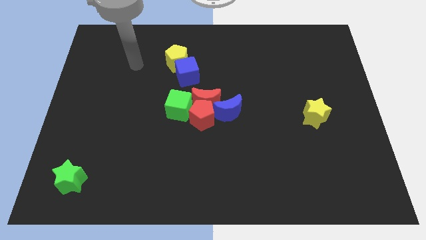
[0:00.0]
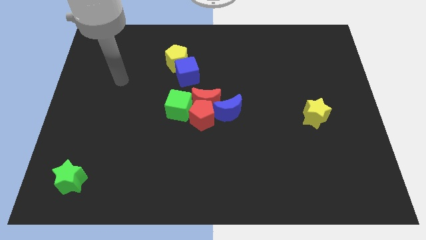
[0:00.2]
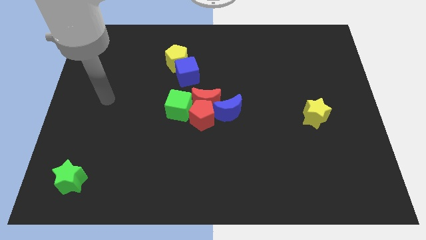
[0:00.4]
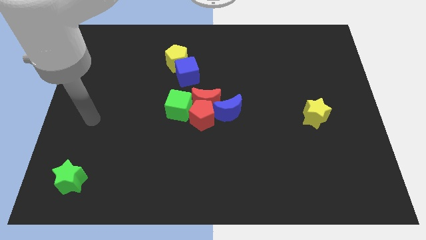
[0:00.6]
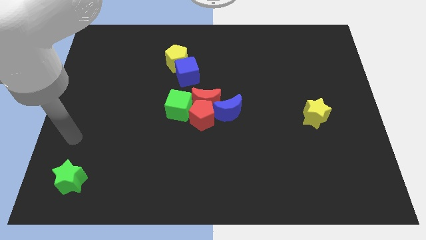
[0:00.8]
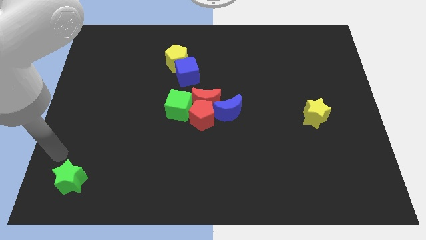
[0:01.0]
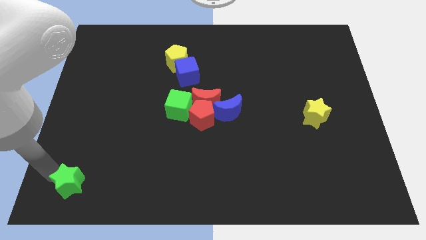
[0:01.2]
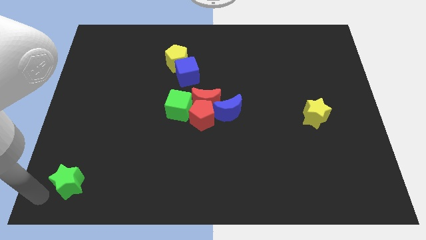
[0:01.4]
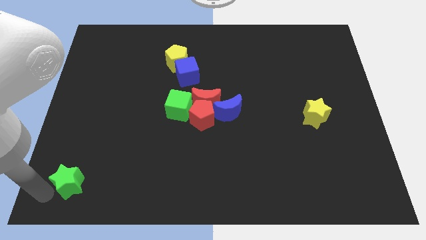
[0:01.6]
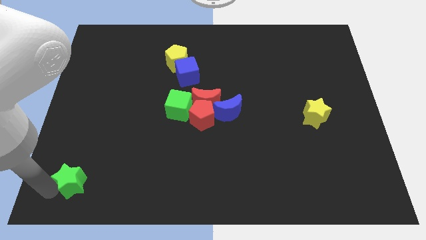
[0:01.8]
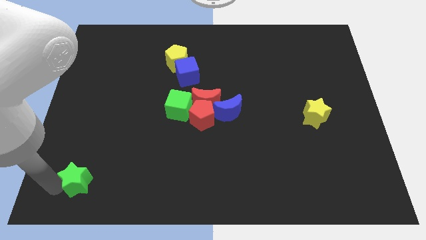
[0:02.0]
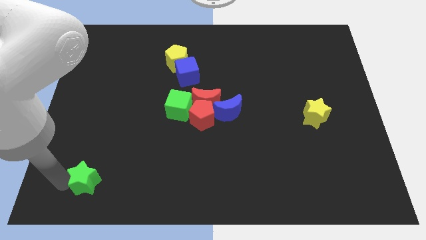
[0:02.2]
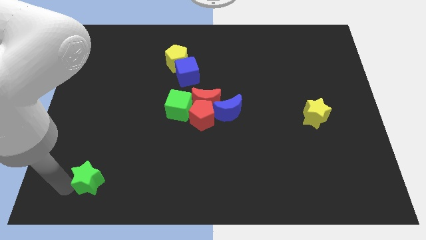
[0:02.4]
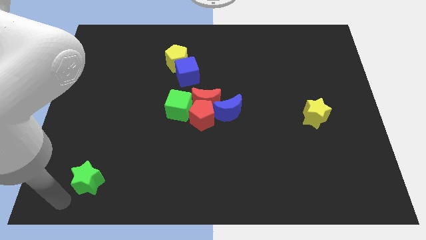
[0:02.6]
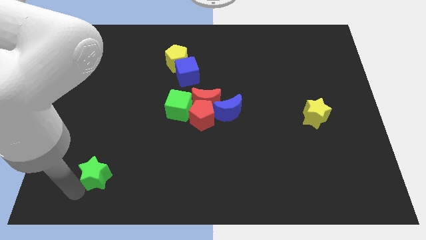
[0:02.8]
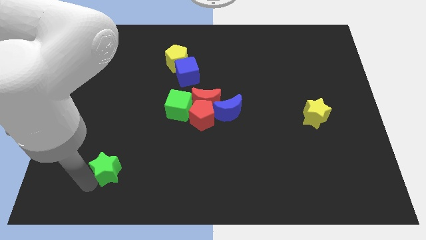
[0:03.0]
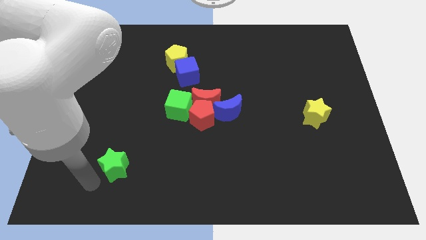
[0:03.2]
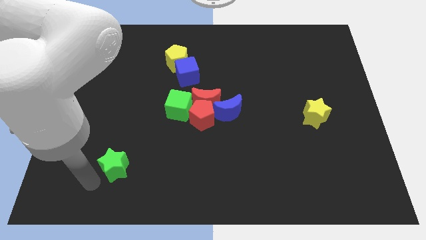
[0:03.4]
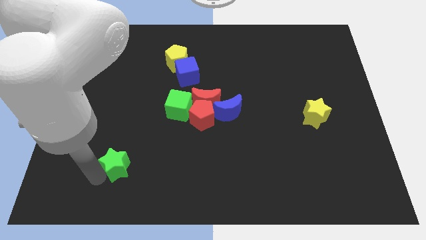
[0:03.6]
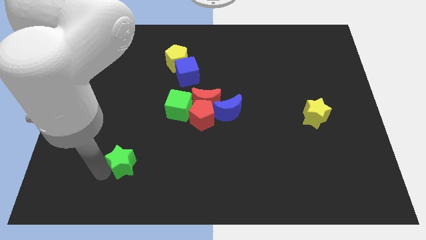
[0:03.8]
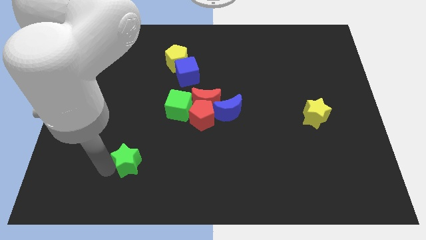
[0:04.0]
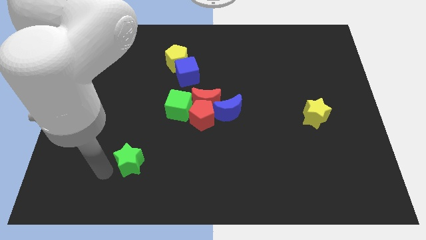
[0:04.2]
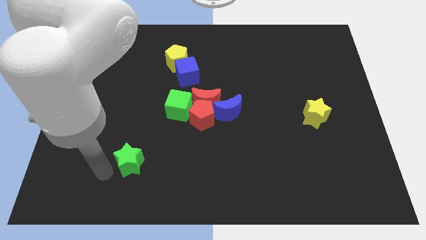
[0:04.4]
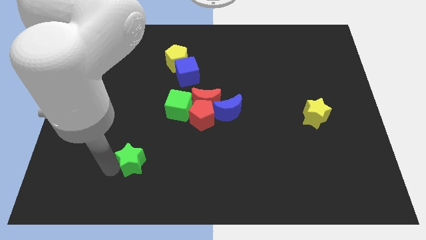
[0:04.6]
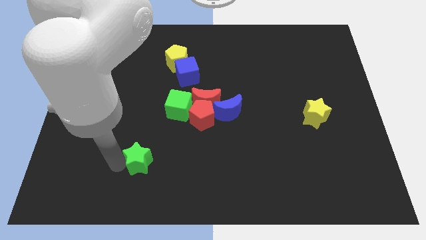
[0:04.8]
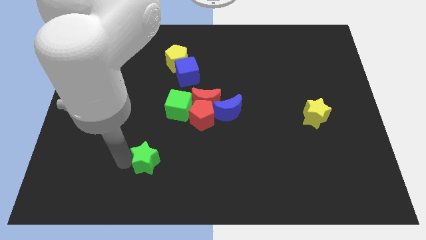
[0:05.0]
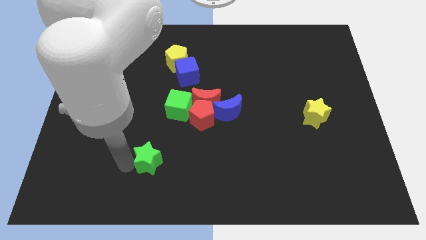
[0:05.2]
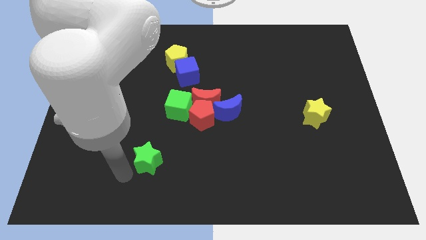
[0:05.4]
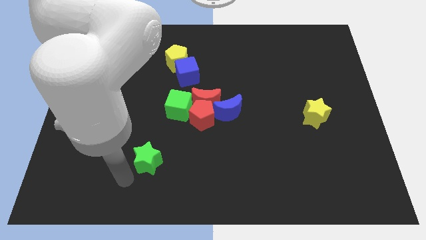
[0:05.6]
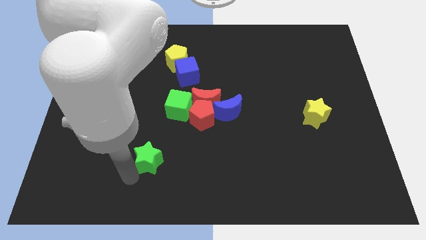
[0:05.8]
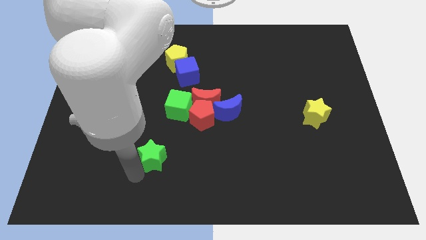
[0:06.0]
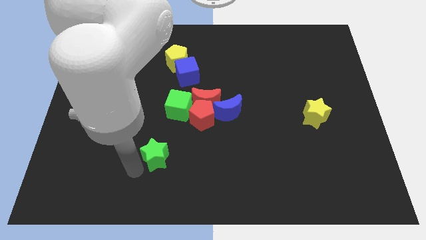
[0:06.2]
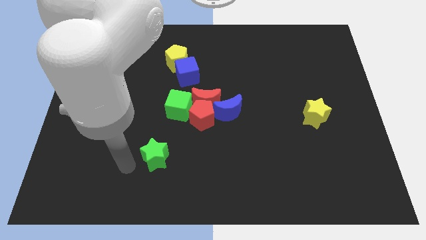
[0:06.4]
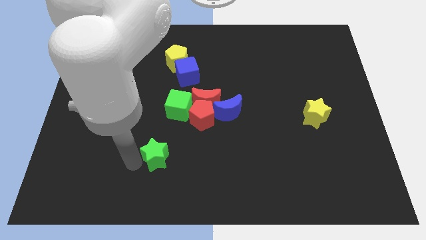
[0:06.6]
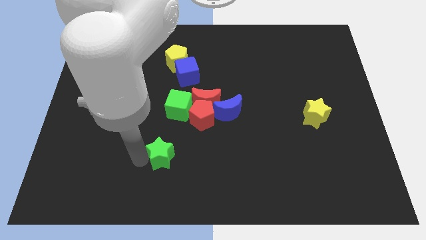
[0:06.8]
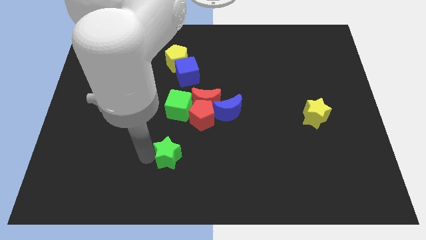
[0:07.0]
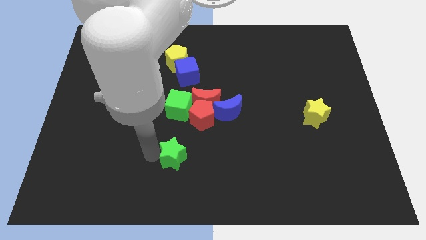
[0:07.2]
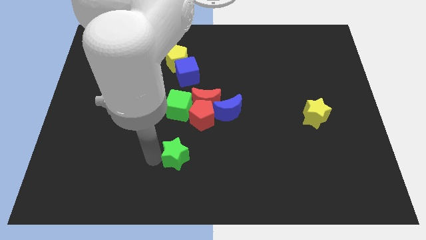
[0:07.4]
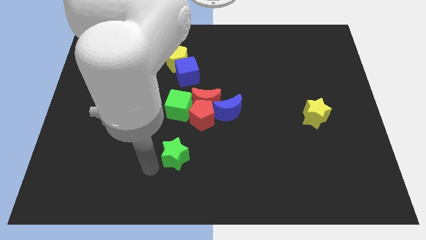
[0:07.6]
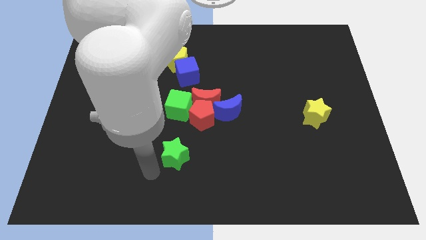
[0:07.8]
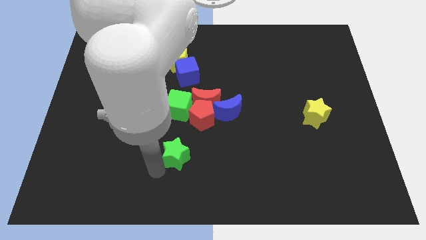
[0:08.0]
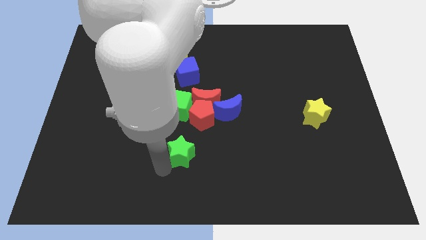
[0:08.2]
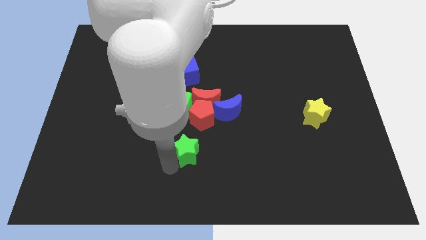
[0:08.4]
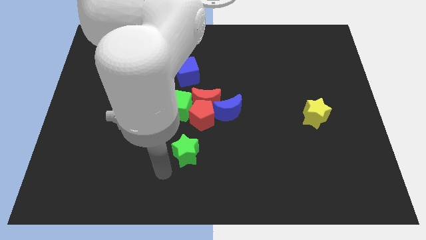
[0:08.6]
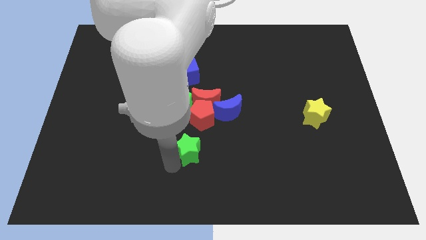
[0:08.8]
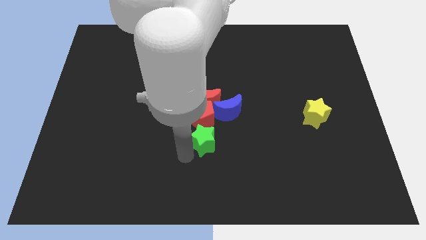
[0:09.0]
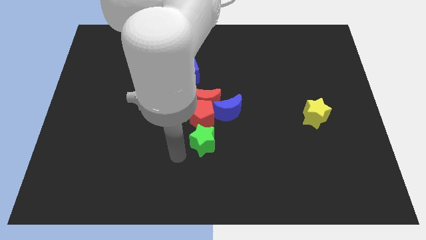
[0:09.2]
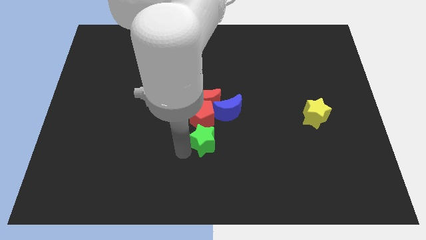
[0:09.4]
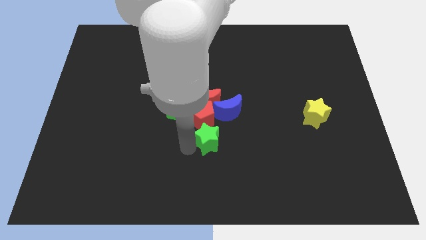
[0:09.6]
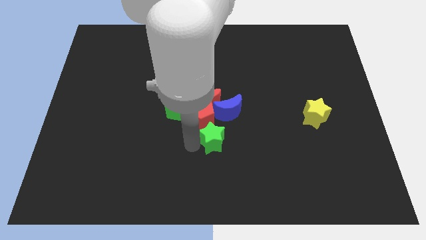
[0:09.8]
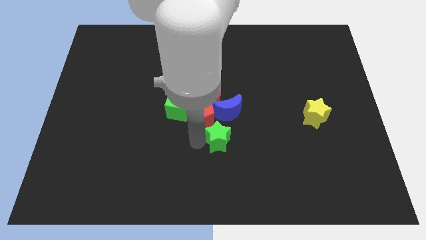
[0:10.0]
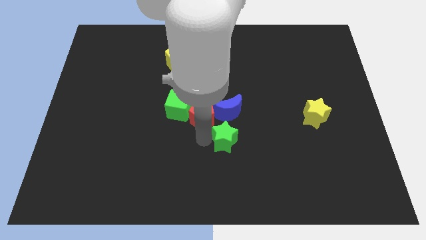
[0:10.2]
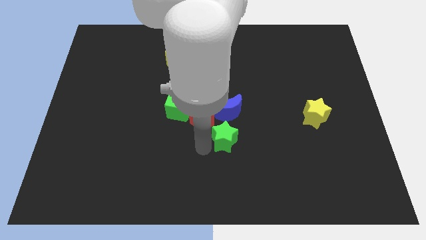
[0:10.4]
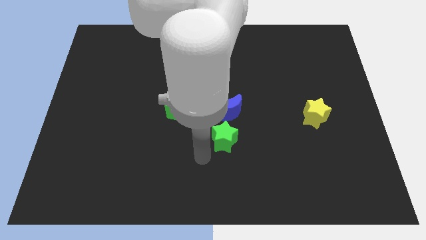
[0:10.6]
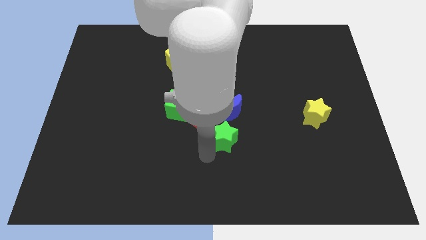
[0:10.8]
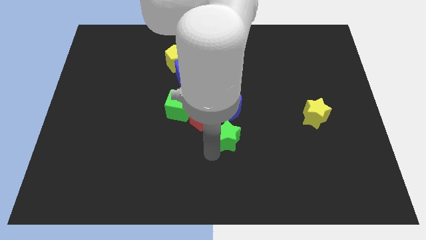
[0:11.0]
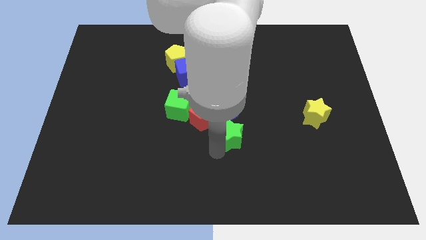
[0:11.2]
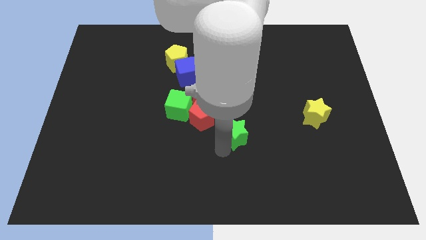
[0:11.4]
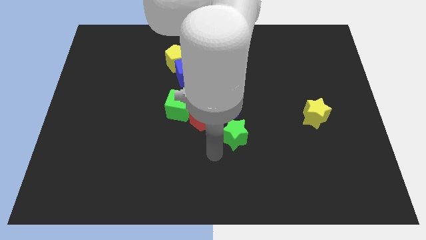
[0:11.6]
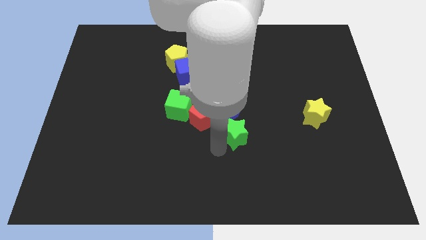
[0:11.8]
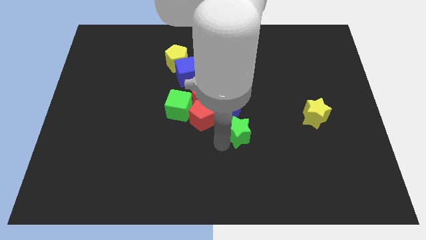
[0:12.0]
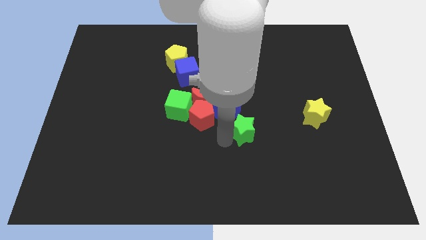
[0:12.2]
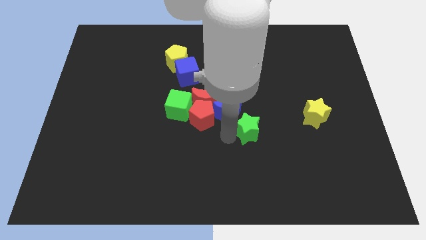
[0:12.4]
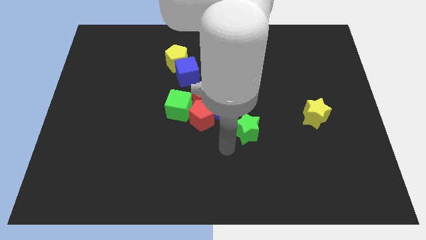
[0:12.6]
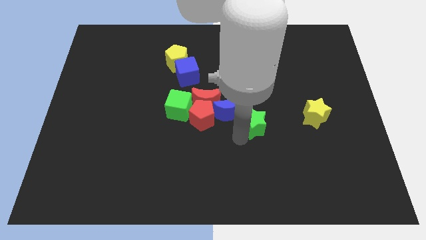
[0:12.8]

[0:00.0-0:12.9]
put the green star to the right of the blue moon

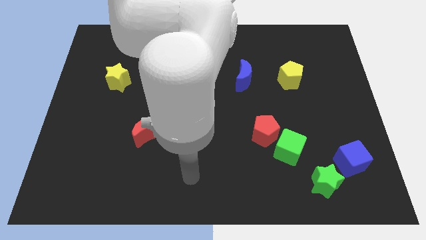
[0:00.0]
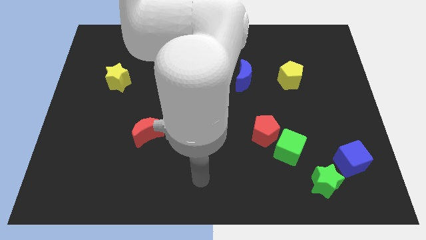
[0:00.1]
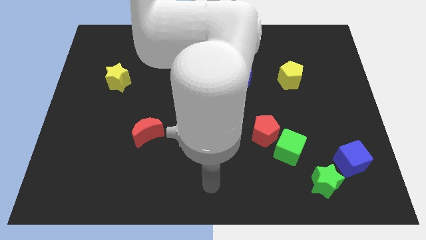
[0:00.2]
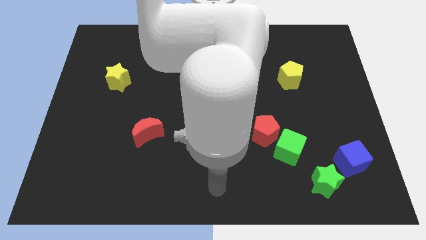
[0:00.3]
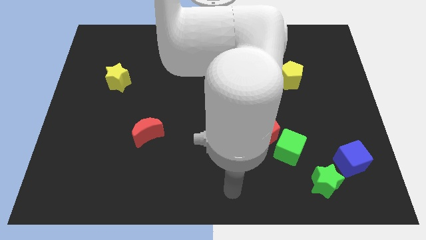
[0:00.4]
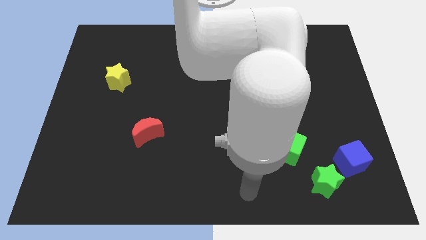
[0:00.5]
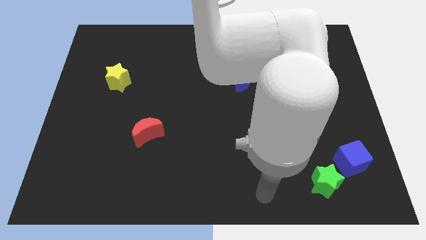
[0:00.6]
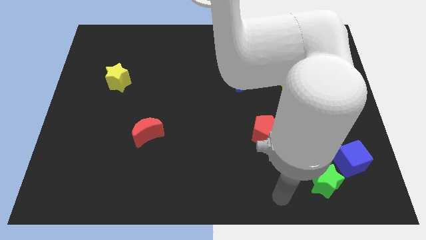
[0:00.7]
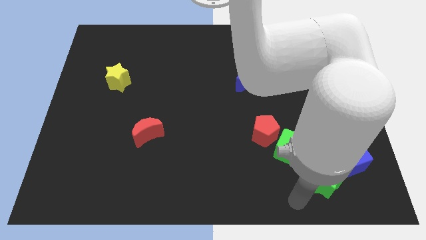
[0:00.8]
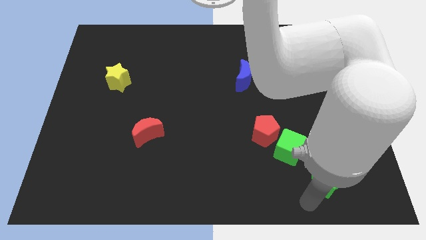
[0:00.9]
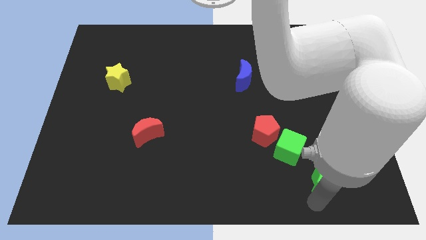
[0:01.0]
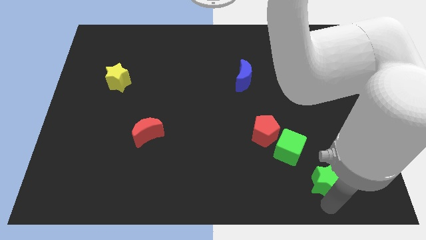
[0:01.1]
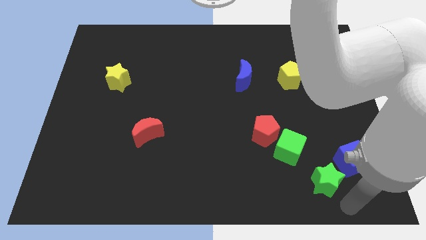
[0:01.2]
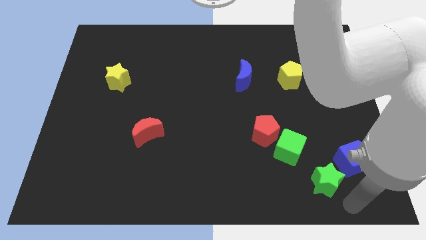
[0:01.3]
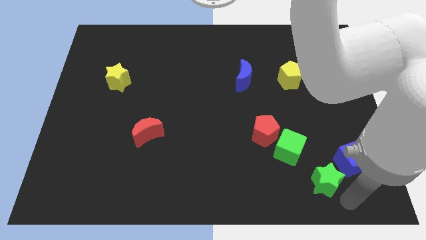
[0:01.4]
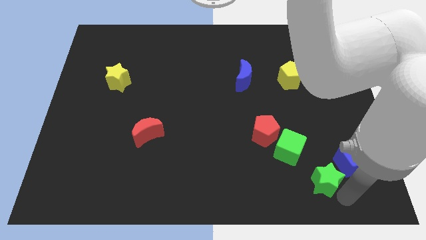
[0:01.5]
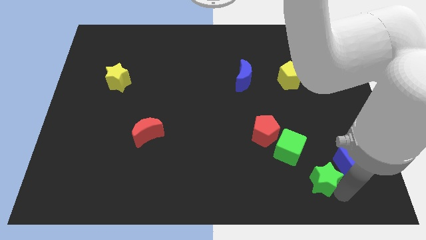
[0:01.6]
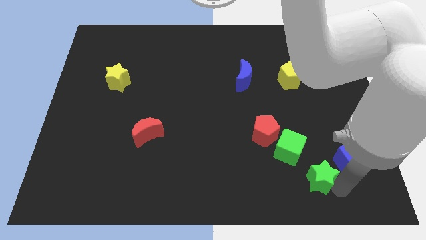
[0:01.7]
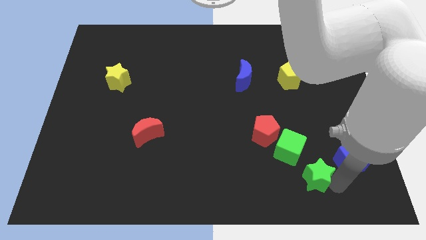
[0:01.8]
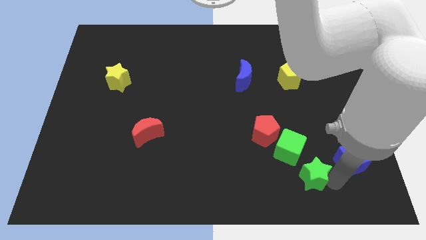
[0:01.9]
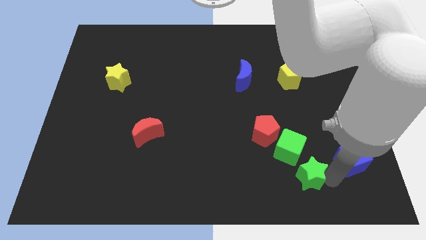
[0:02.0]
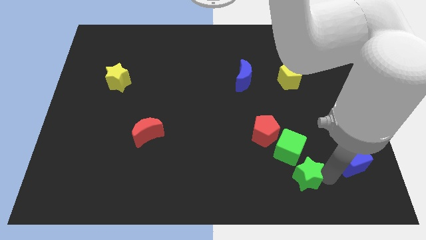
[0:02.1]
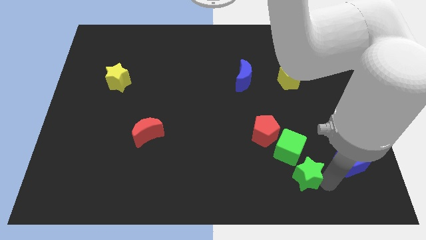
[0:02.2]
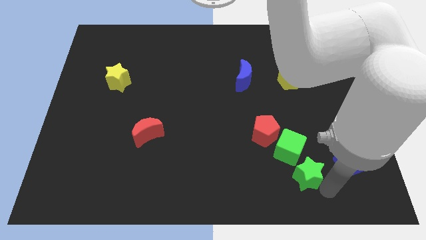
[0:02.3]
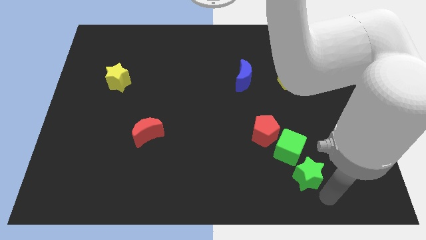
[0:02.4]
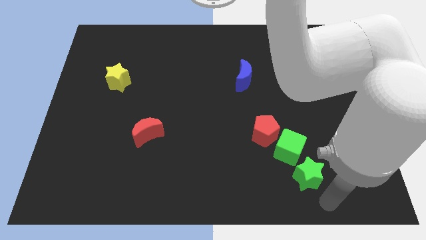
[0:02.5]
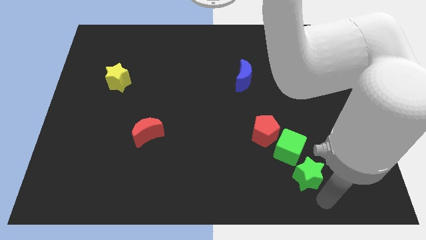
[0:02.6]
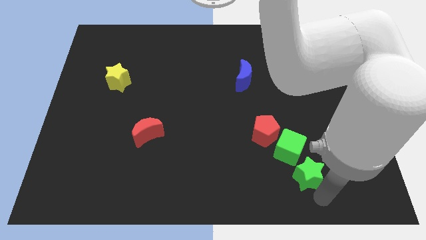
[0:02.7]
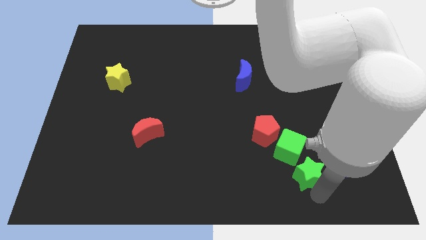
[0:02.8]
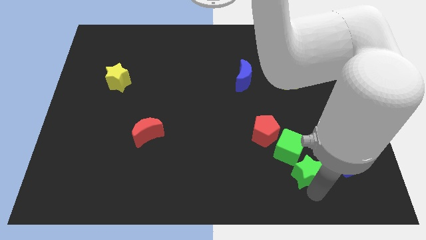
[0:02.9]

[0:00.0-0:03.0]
put the green star to the bottom right side of the red pentagon
